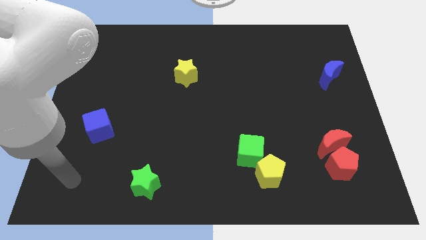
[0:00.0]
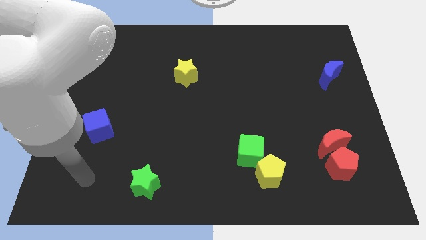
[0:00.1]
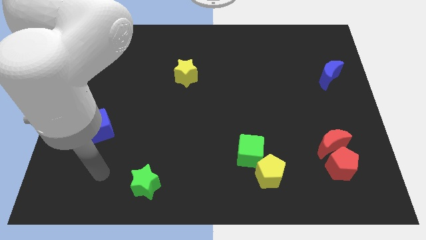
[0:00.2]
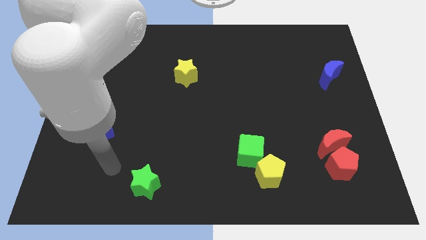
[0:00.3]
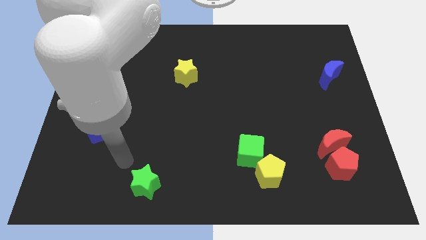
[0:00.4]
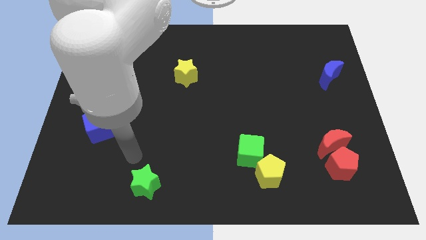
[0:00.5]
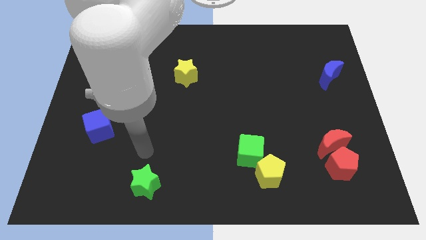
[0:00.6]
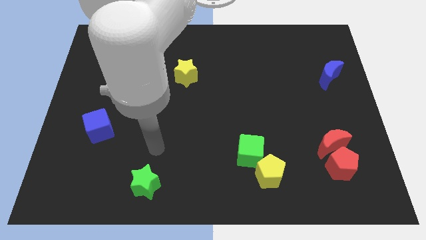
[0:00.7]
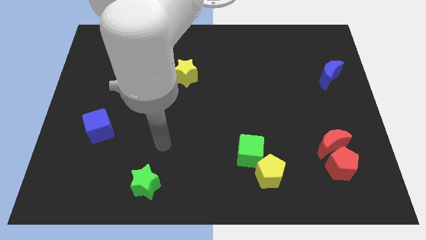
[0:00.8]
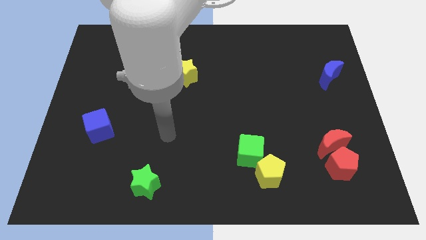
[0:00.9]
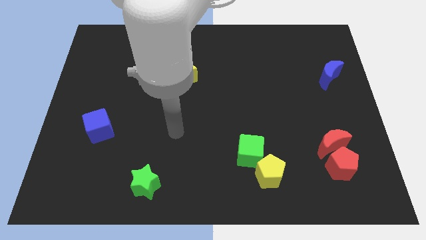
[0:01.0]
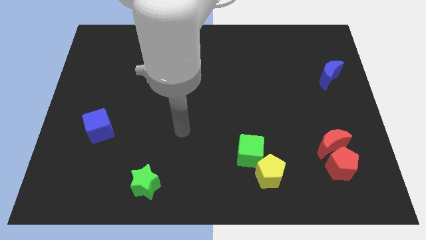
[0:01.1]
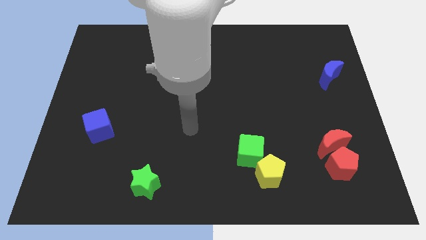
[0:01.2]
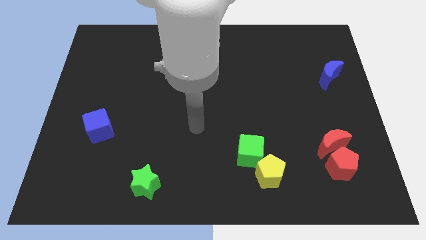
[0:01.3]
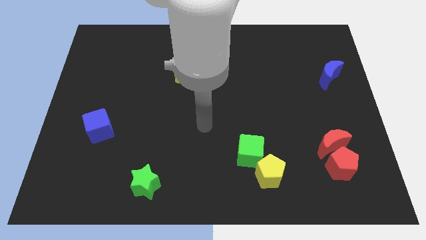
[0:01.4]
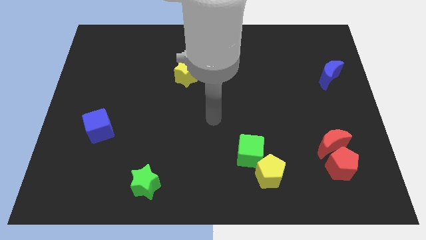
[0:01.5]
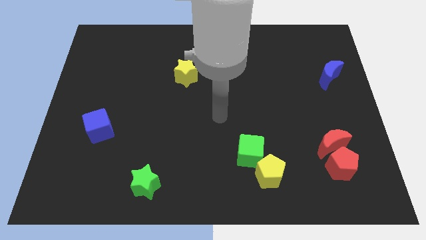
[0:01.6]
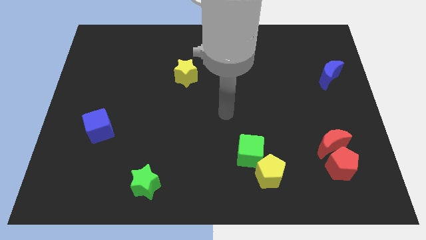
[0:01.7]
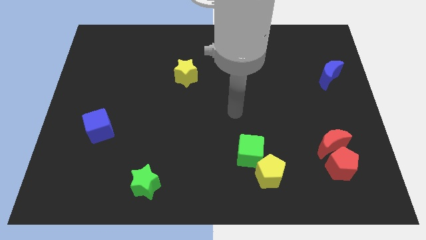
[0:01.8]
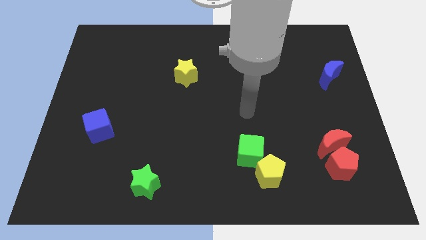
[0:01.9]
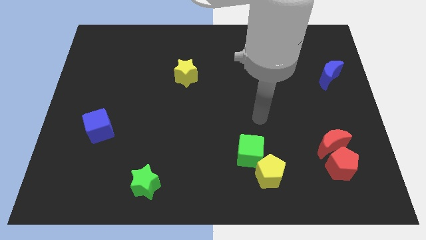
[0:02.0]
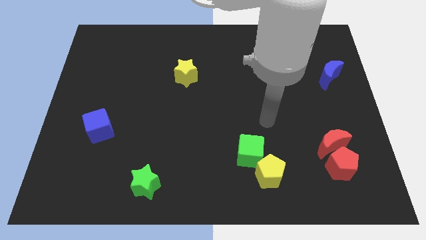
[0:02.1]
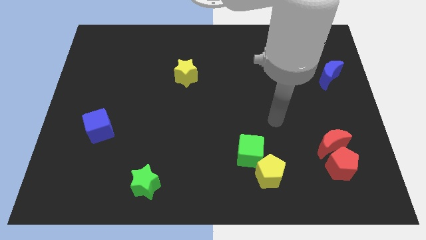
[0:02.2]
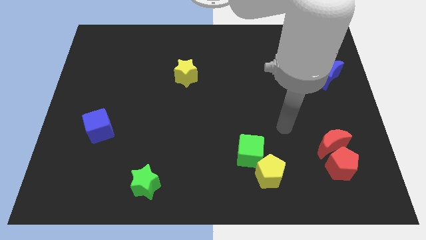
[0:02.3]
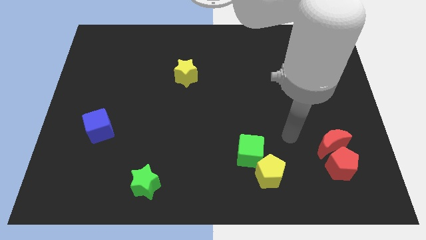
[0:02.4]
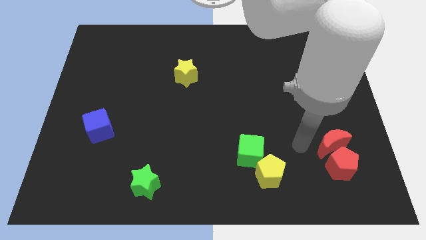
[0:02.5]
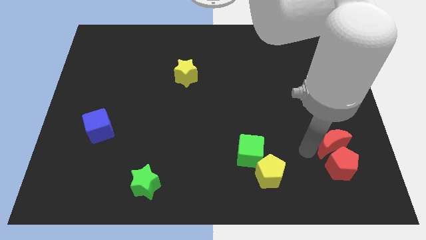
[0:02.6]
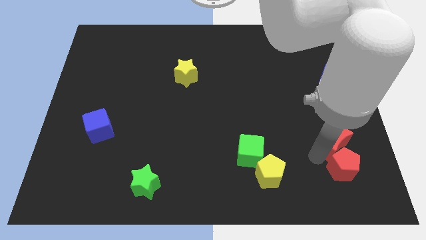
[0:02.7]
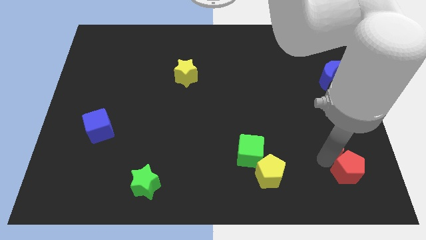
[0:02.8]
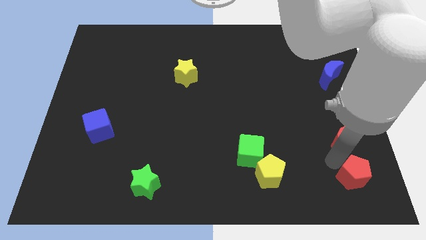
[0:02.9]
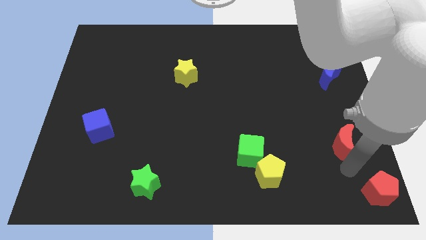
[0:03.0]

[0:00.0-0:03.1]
separate the red moon from the red pentagon

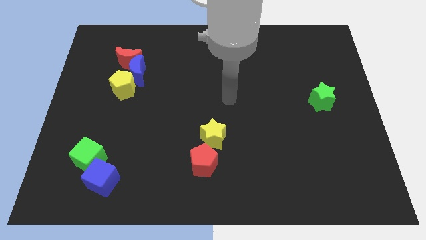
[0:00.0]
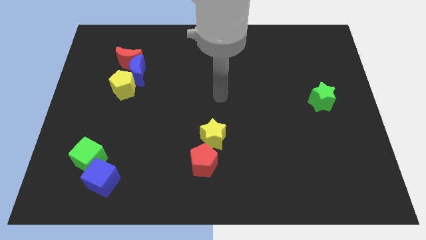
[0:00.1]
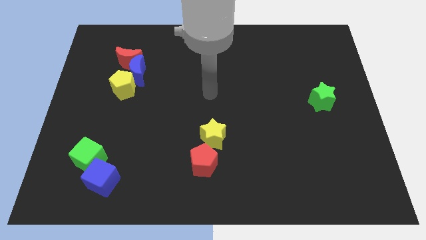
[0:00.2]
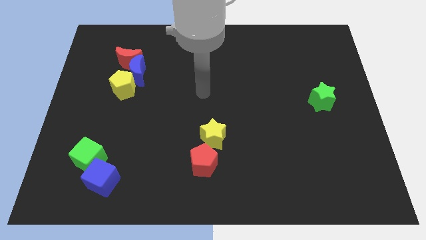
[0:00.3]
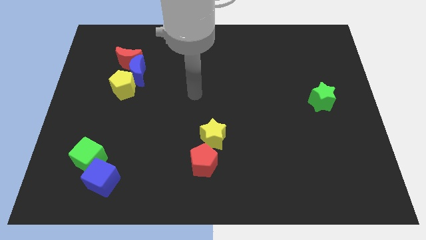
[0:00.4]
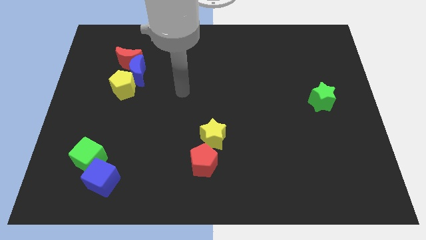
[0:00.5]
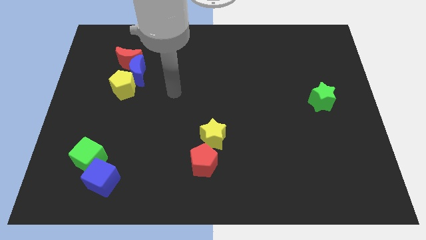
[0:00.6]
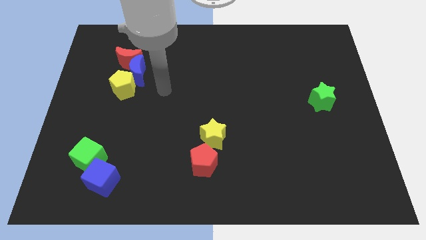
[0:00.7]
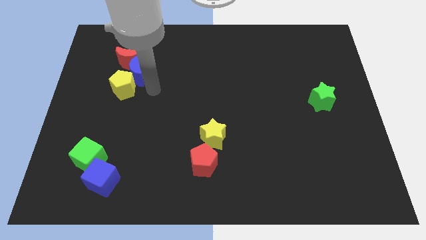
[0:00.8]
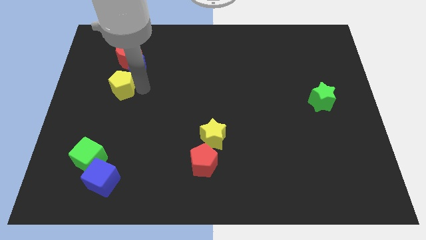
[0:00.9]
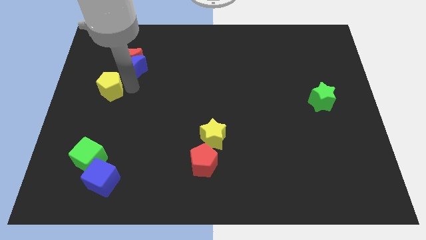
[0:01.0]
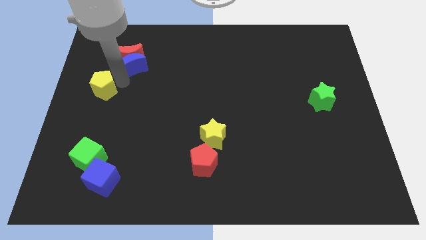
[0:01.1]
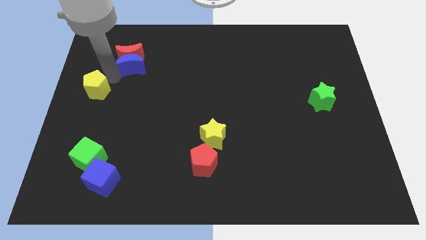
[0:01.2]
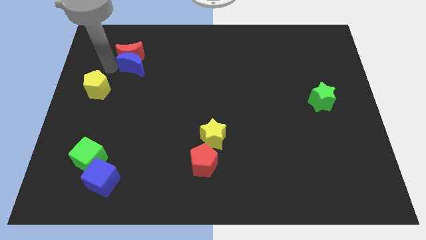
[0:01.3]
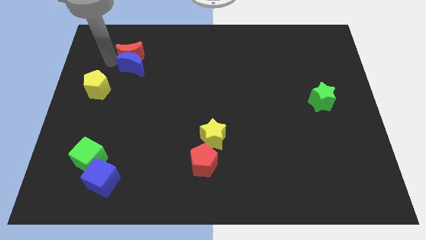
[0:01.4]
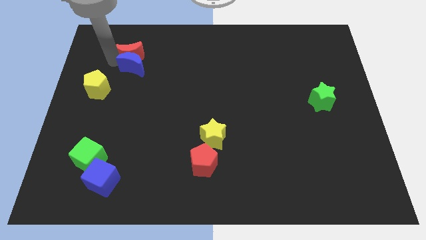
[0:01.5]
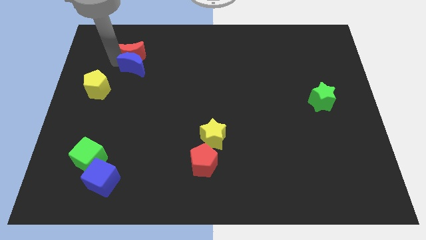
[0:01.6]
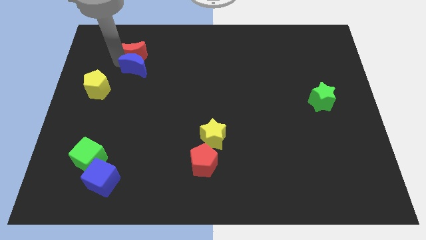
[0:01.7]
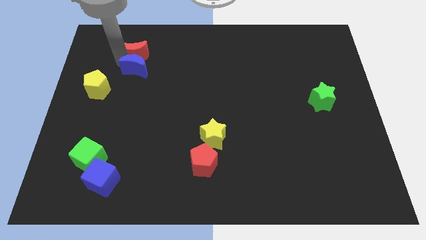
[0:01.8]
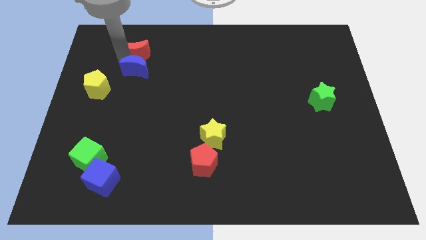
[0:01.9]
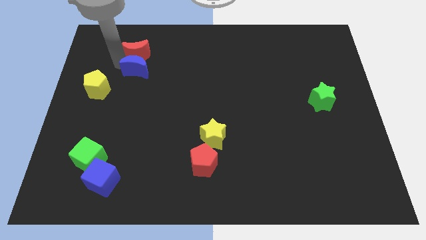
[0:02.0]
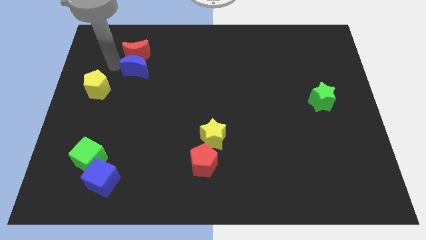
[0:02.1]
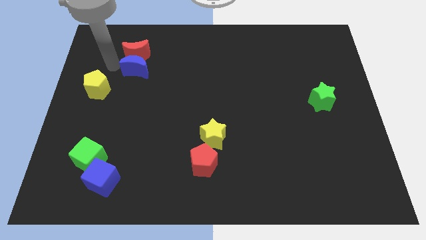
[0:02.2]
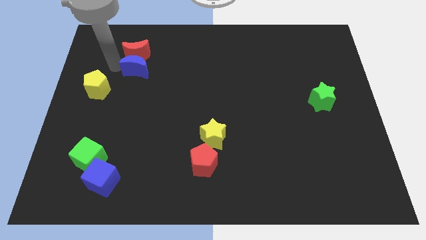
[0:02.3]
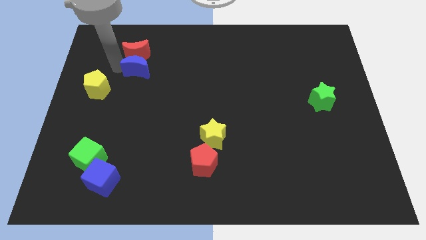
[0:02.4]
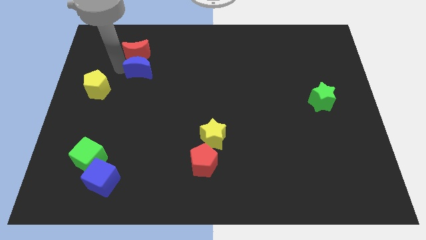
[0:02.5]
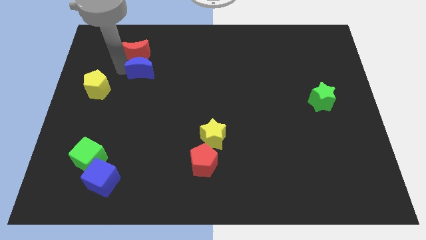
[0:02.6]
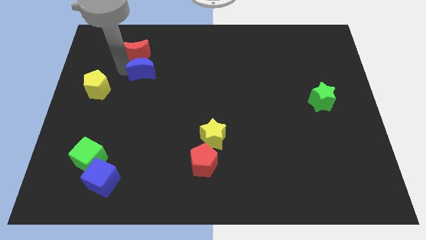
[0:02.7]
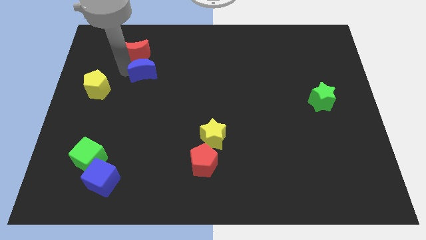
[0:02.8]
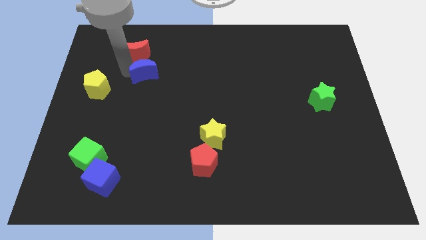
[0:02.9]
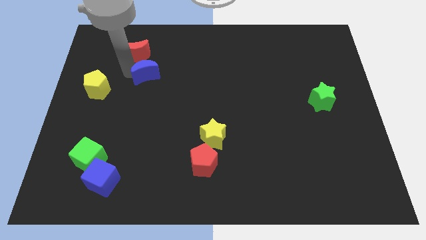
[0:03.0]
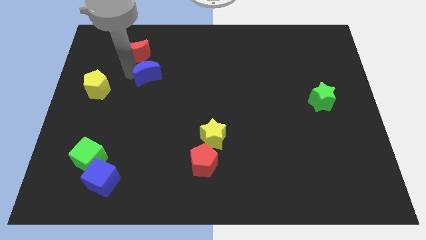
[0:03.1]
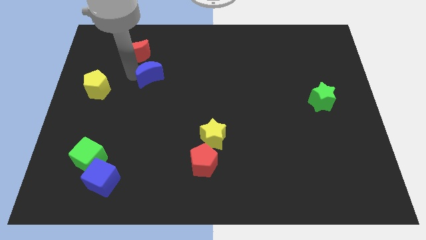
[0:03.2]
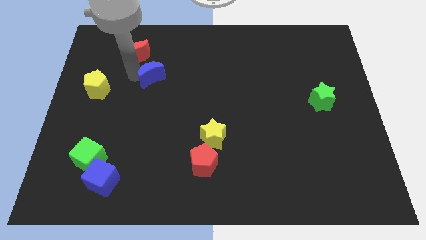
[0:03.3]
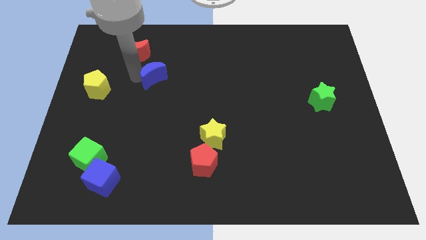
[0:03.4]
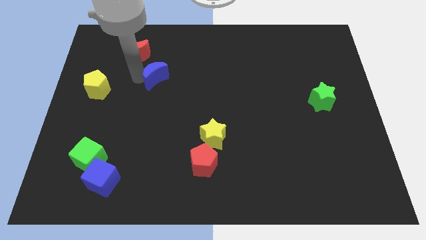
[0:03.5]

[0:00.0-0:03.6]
separate the blue moon from the red moon and yellow pentagon

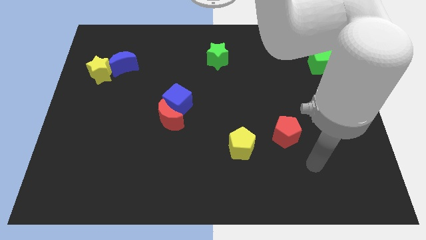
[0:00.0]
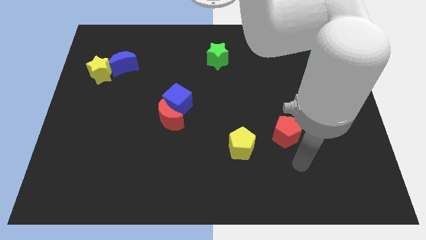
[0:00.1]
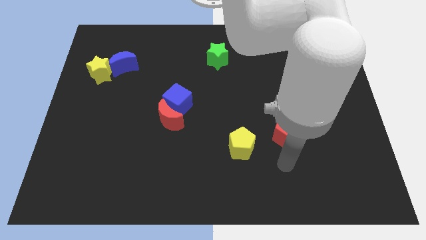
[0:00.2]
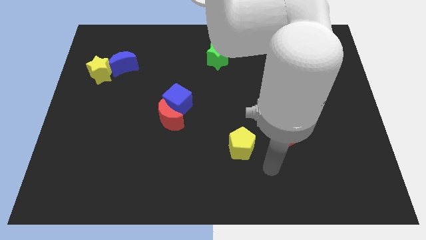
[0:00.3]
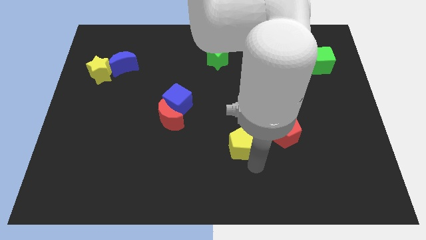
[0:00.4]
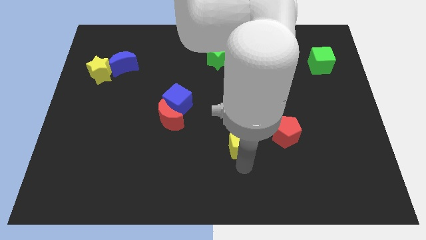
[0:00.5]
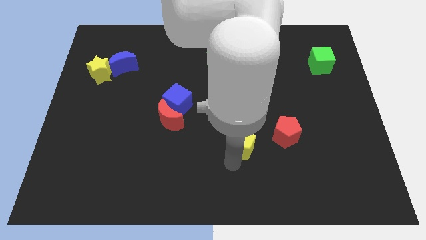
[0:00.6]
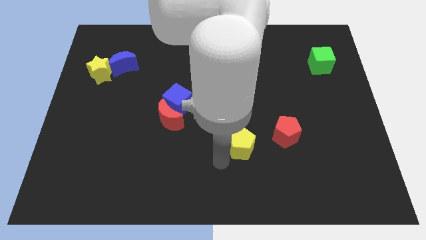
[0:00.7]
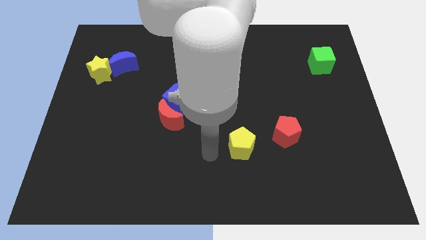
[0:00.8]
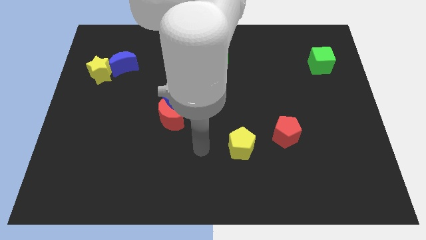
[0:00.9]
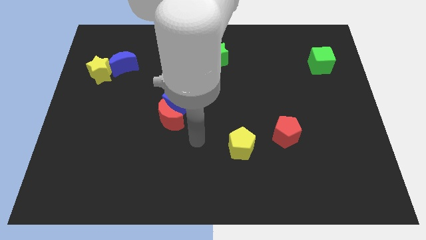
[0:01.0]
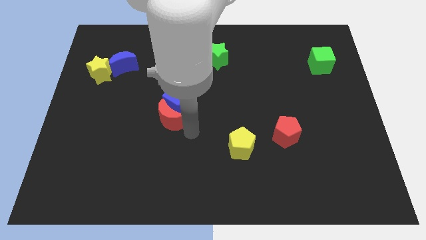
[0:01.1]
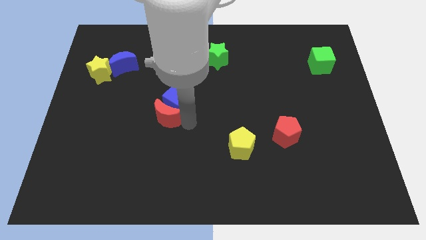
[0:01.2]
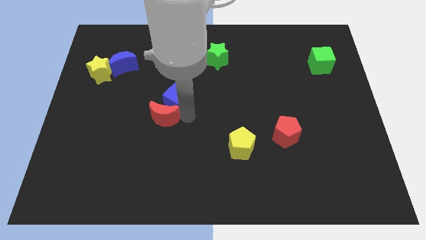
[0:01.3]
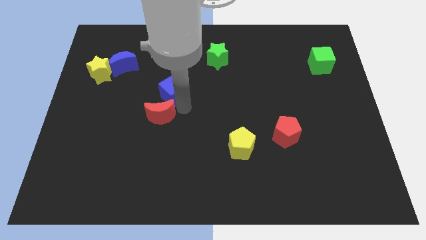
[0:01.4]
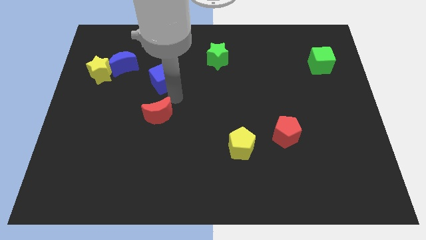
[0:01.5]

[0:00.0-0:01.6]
separate the red moon from the blue cube

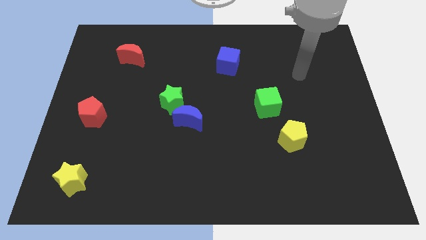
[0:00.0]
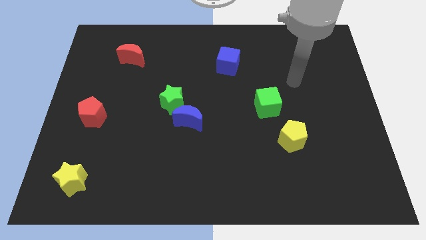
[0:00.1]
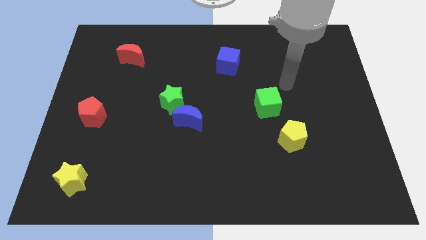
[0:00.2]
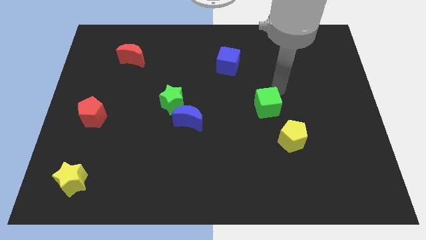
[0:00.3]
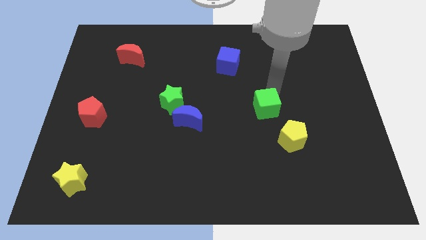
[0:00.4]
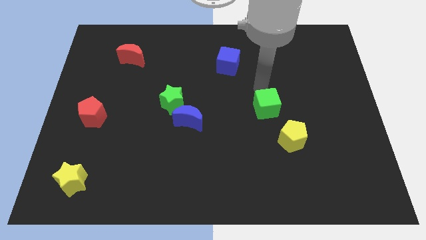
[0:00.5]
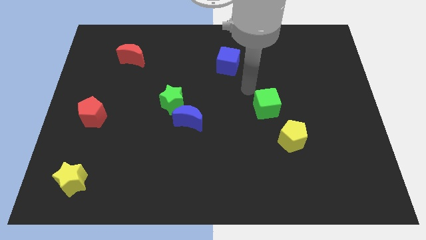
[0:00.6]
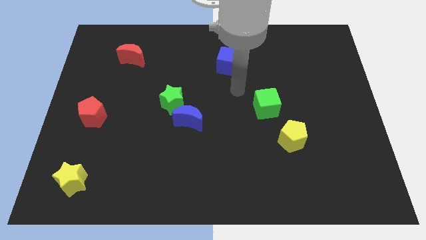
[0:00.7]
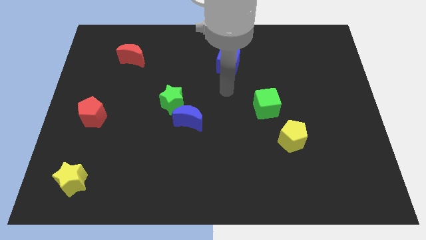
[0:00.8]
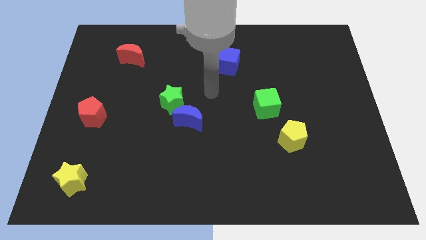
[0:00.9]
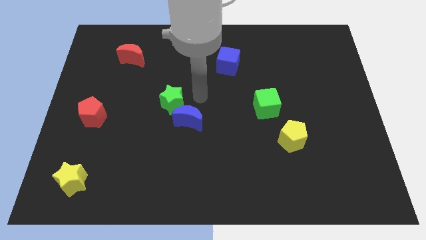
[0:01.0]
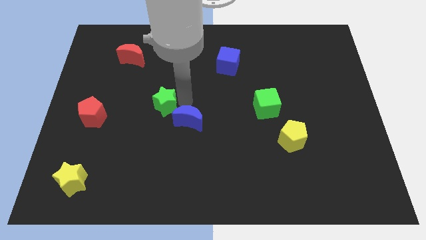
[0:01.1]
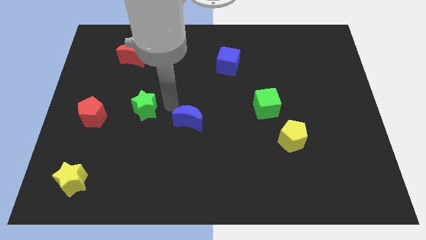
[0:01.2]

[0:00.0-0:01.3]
separate the blue moon from the green star
